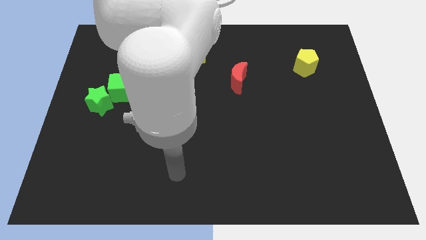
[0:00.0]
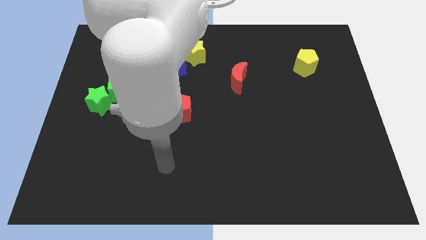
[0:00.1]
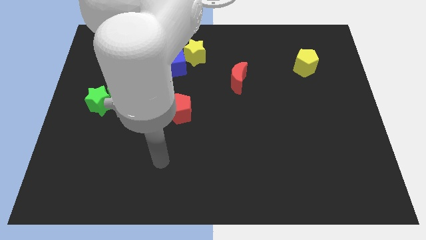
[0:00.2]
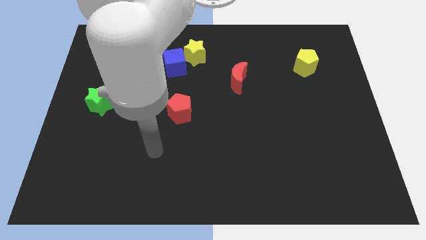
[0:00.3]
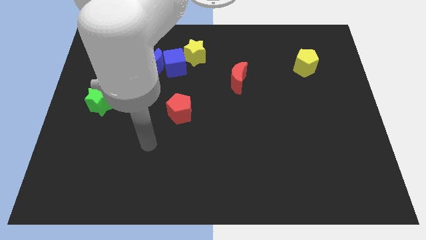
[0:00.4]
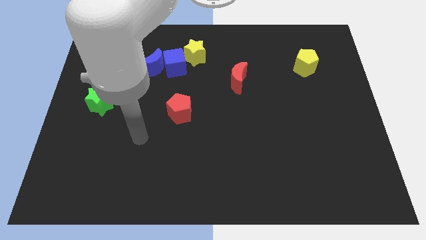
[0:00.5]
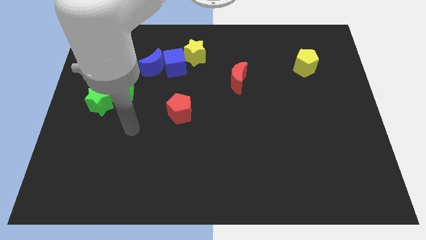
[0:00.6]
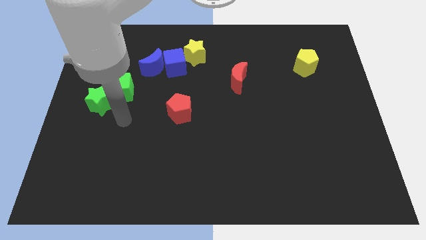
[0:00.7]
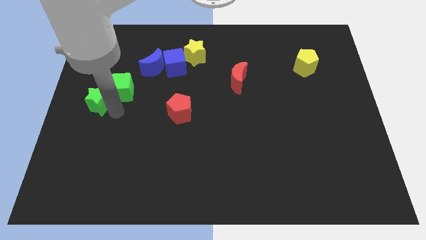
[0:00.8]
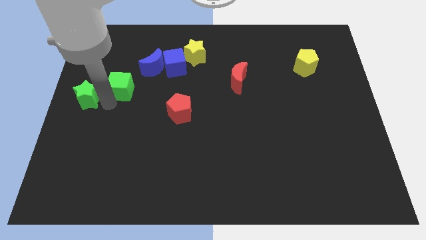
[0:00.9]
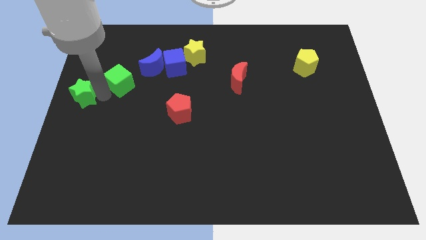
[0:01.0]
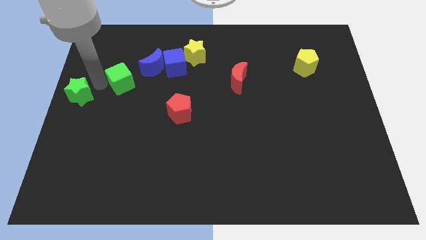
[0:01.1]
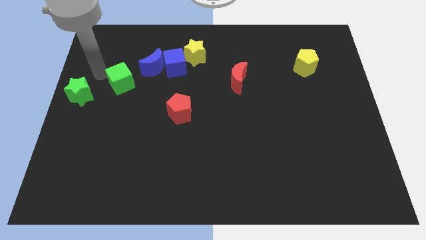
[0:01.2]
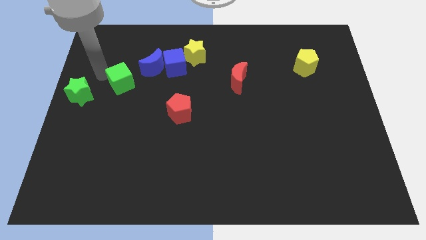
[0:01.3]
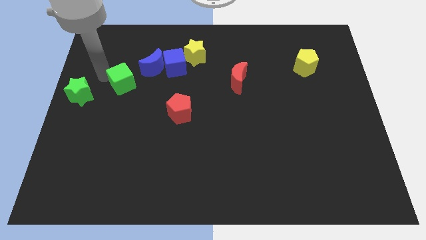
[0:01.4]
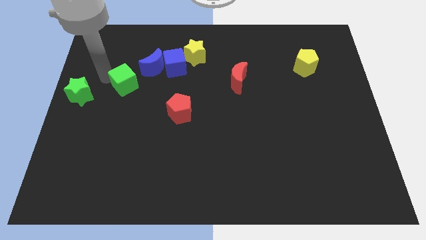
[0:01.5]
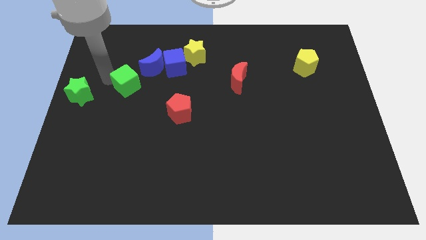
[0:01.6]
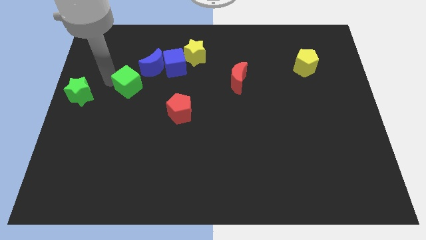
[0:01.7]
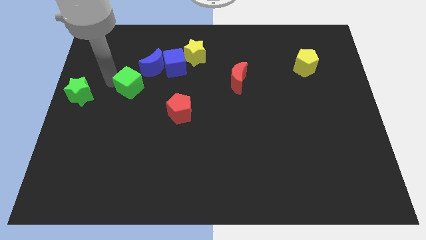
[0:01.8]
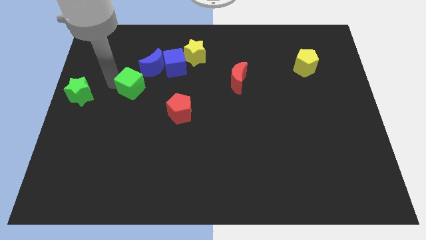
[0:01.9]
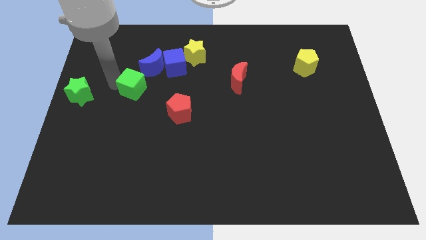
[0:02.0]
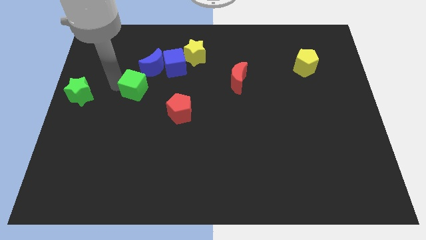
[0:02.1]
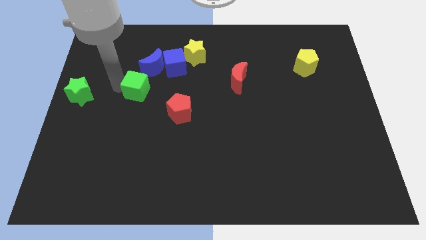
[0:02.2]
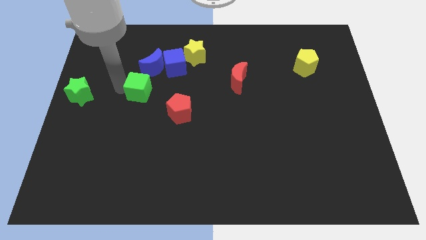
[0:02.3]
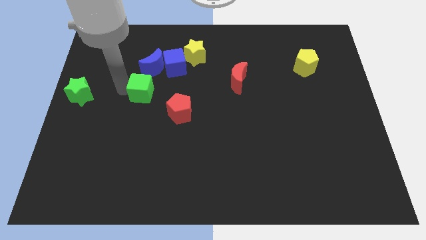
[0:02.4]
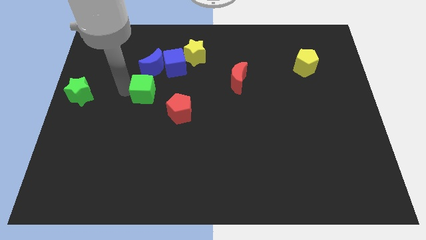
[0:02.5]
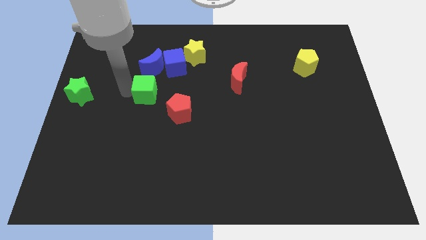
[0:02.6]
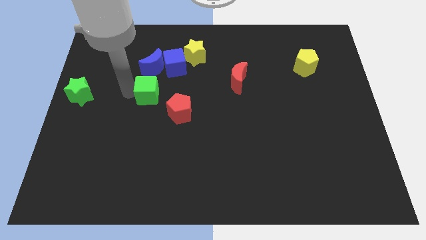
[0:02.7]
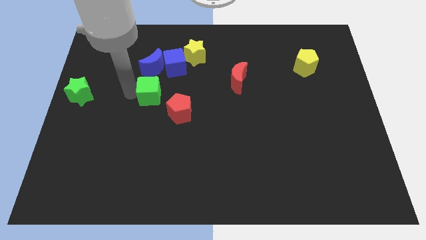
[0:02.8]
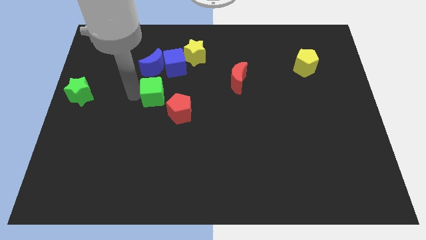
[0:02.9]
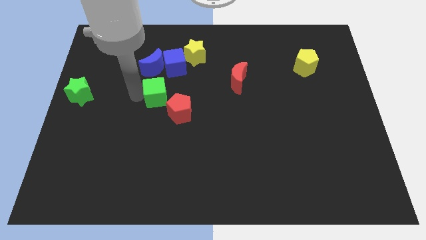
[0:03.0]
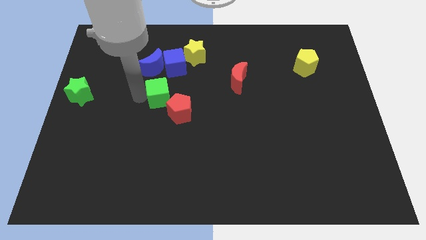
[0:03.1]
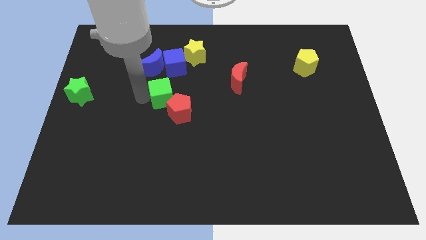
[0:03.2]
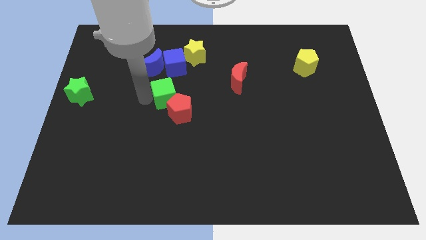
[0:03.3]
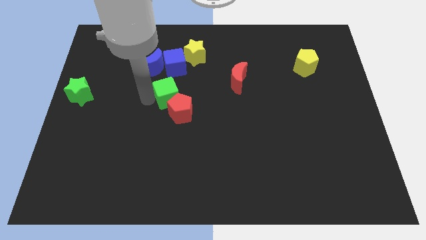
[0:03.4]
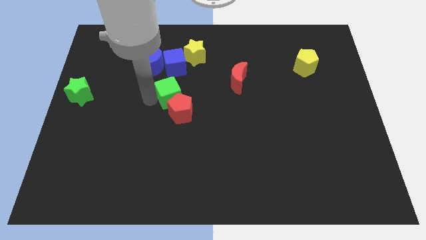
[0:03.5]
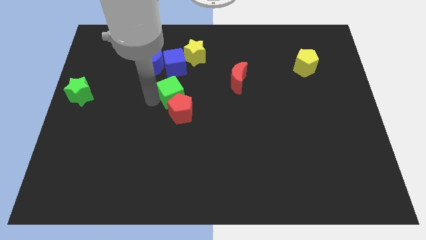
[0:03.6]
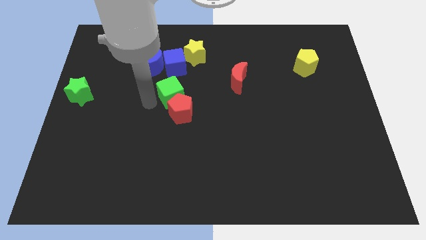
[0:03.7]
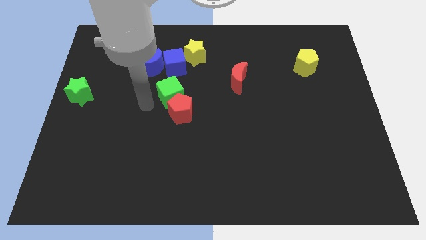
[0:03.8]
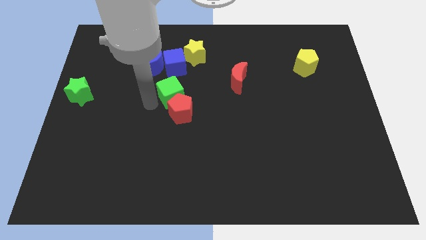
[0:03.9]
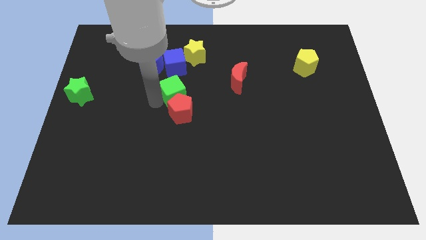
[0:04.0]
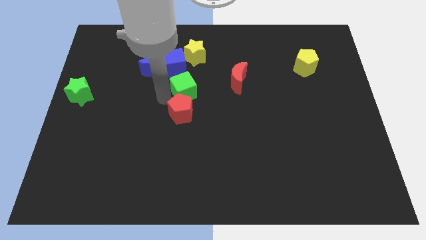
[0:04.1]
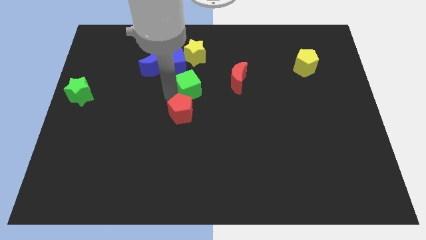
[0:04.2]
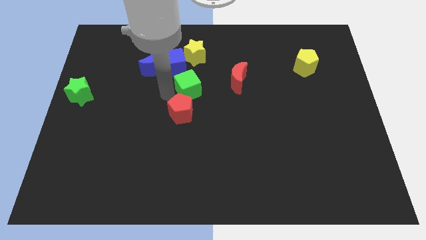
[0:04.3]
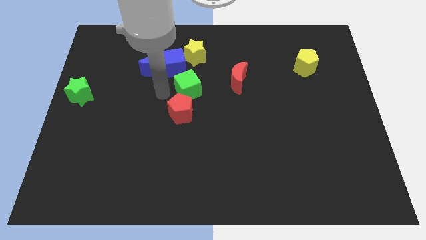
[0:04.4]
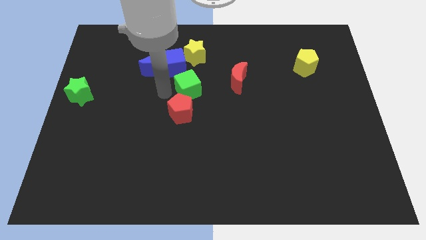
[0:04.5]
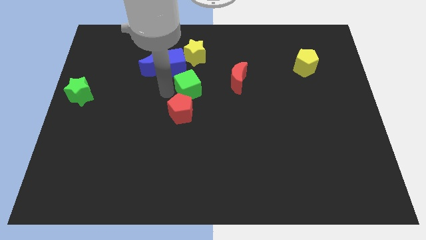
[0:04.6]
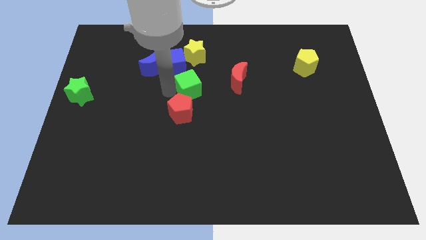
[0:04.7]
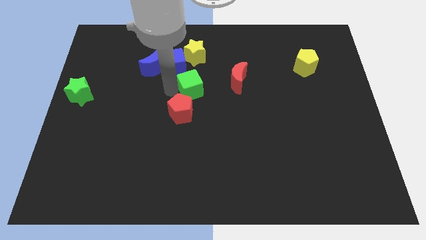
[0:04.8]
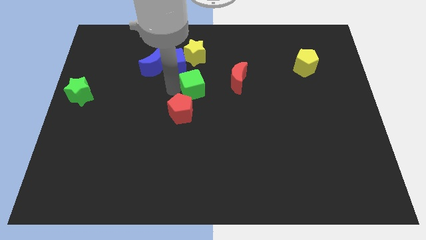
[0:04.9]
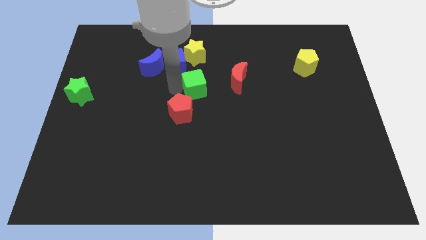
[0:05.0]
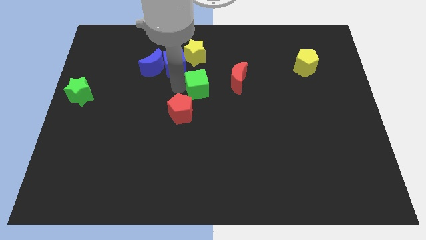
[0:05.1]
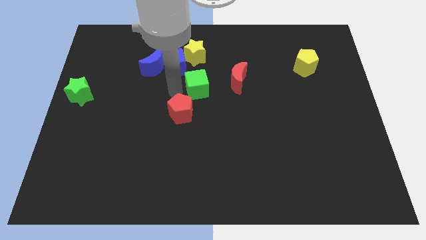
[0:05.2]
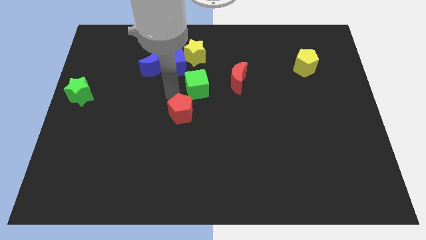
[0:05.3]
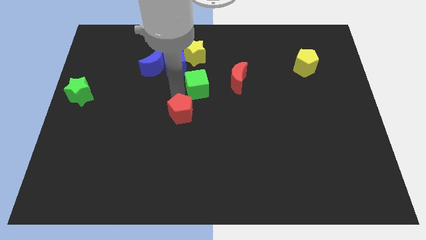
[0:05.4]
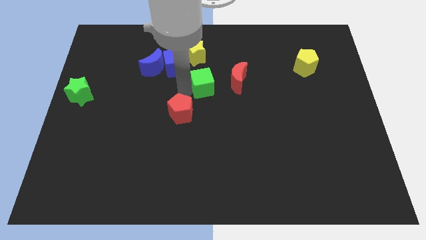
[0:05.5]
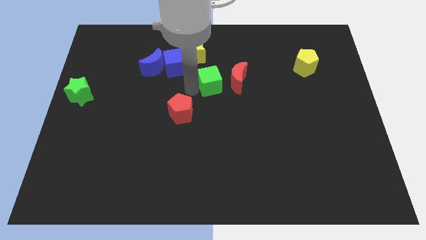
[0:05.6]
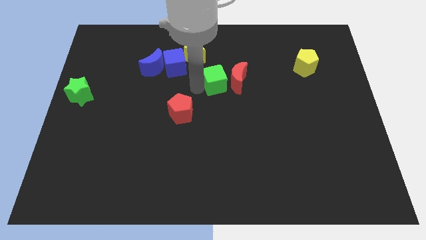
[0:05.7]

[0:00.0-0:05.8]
push the green cube next to the red moon

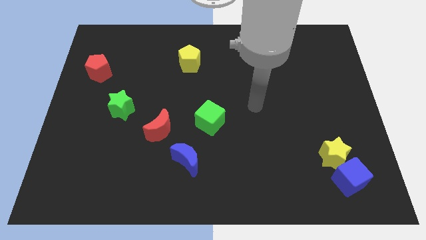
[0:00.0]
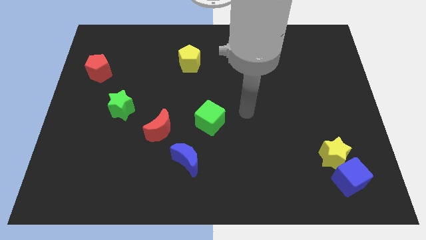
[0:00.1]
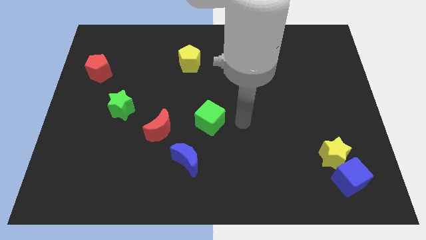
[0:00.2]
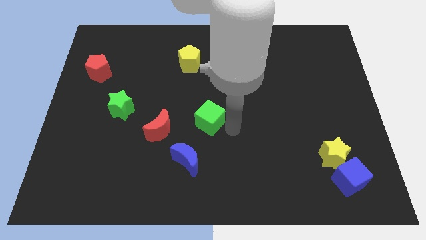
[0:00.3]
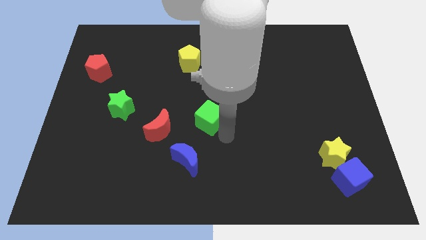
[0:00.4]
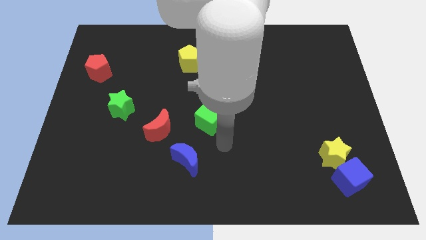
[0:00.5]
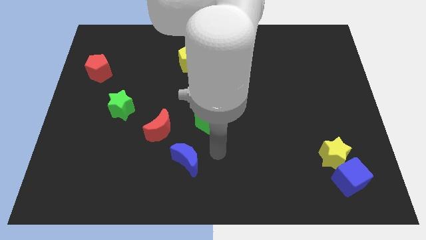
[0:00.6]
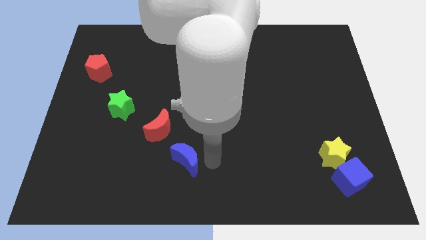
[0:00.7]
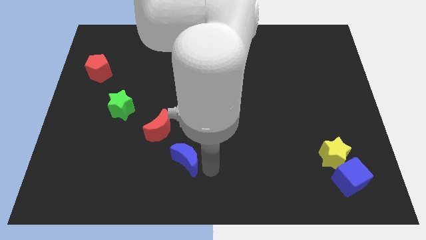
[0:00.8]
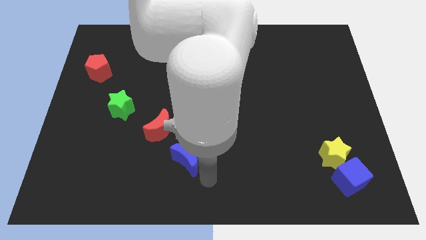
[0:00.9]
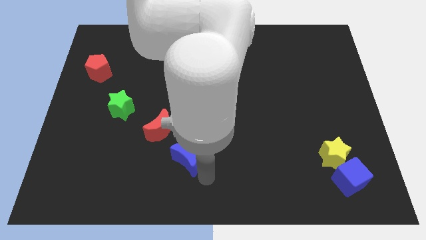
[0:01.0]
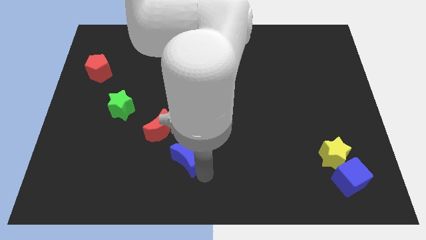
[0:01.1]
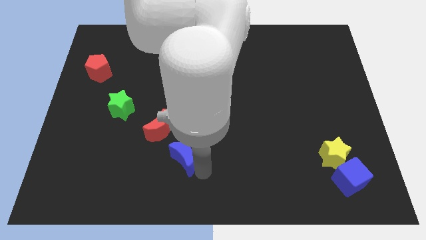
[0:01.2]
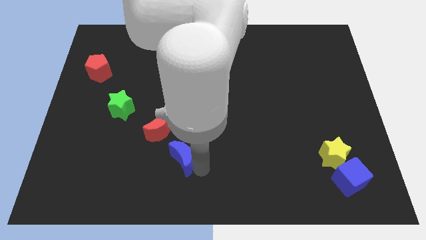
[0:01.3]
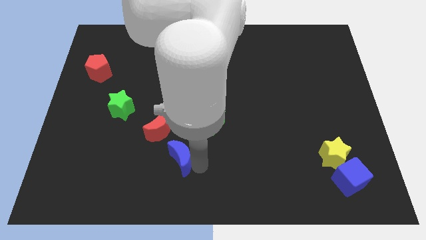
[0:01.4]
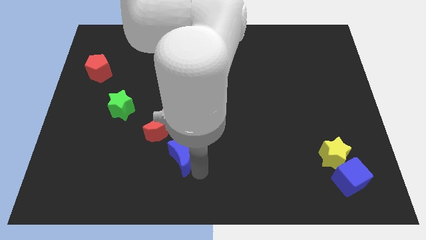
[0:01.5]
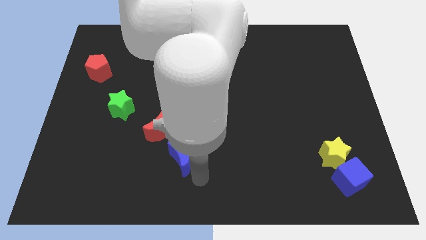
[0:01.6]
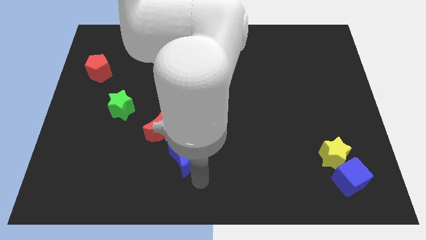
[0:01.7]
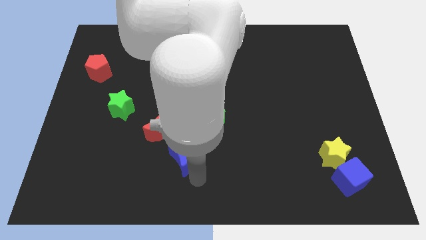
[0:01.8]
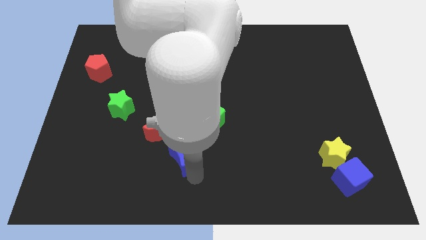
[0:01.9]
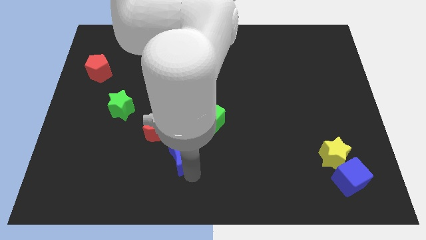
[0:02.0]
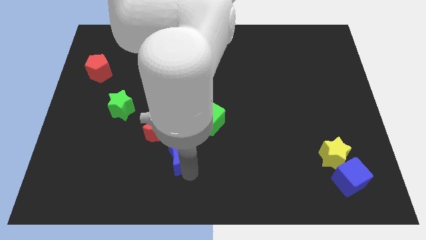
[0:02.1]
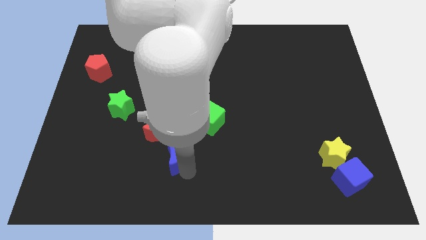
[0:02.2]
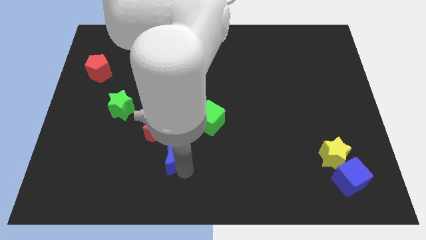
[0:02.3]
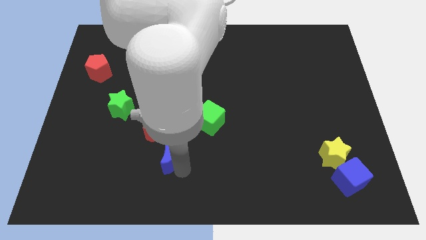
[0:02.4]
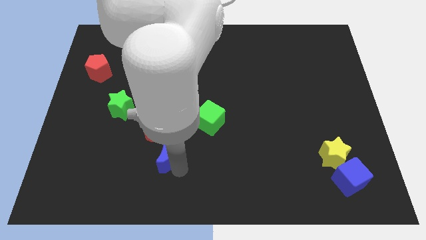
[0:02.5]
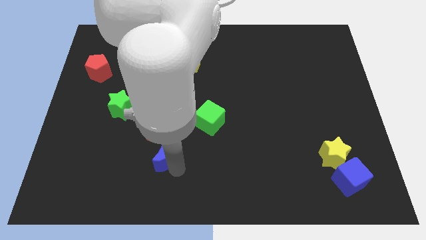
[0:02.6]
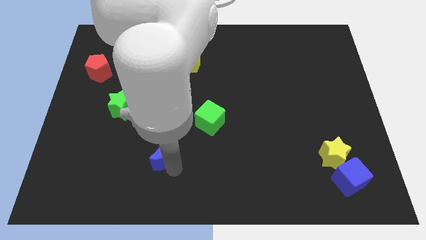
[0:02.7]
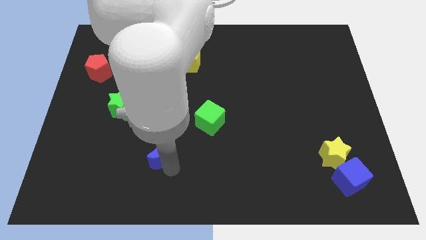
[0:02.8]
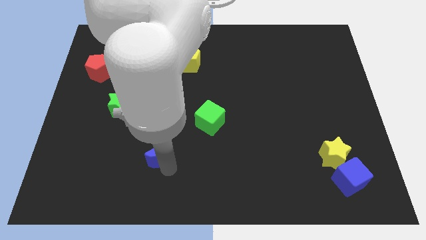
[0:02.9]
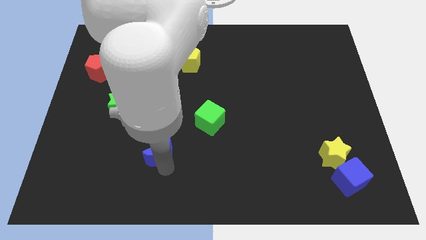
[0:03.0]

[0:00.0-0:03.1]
move the blue moon to the red moon
